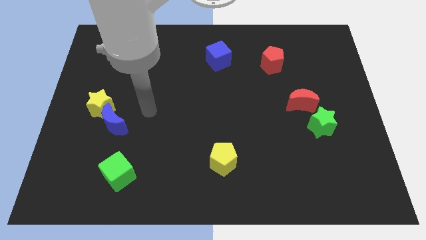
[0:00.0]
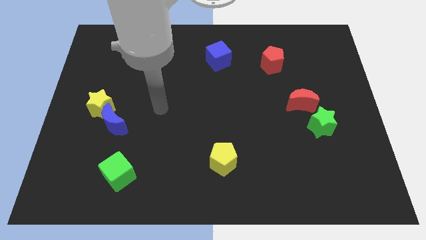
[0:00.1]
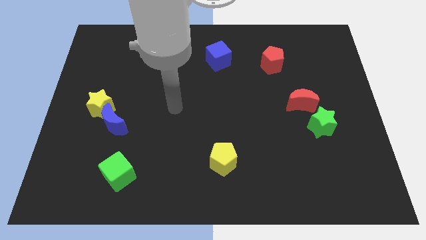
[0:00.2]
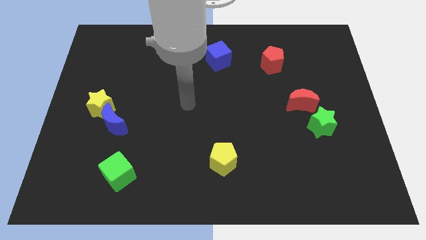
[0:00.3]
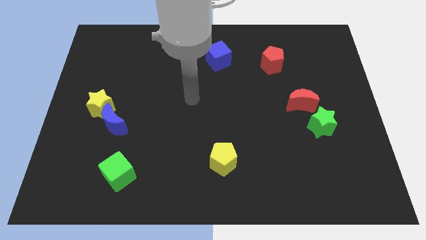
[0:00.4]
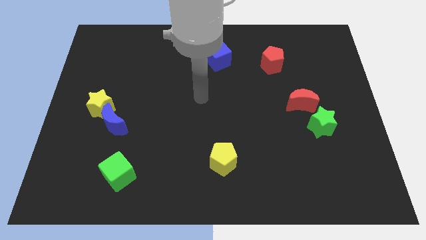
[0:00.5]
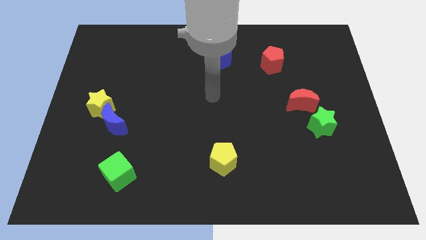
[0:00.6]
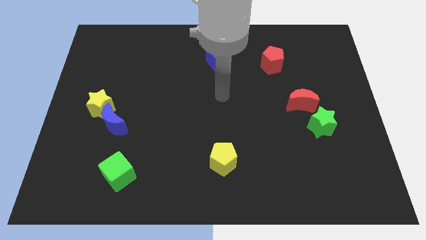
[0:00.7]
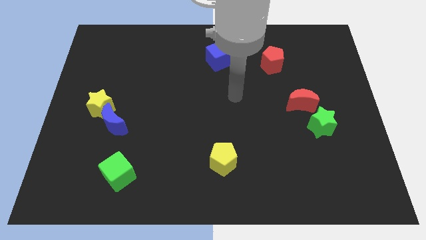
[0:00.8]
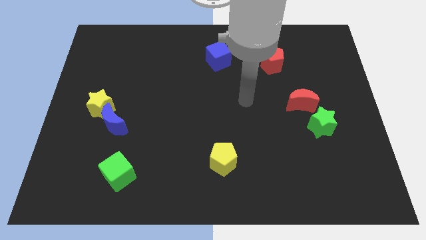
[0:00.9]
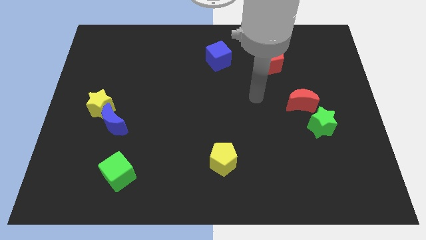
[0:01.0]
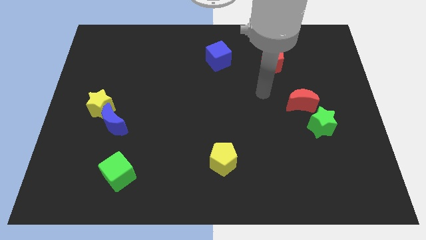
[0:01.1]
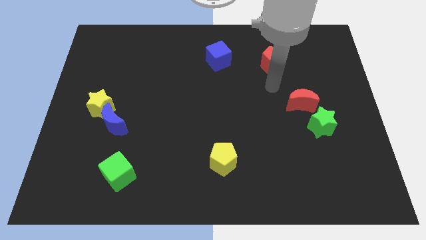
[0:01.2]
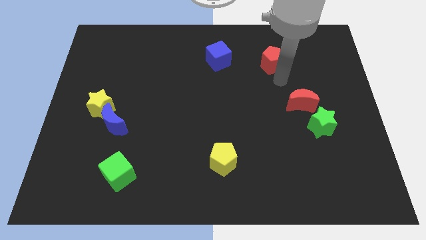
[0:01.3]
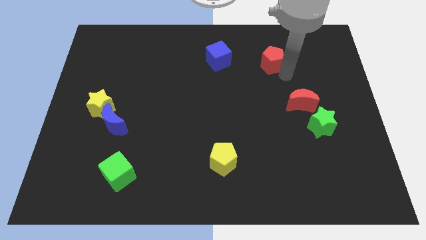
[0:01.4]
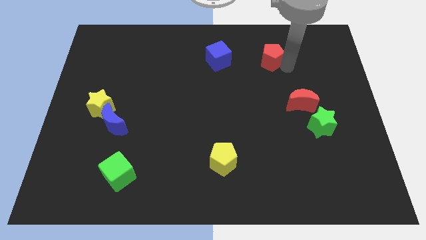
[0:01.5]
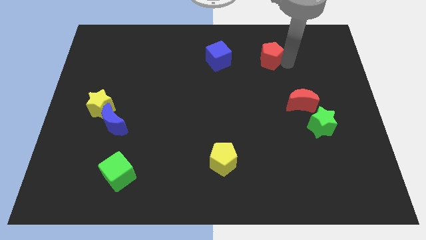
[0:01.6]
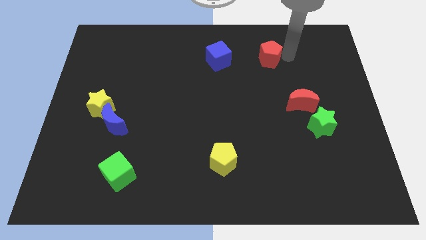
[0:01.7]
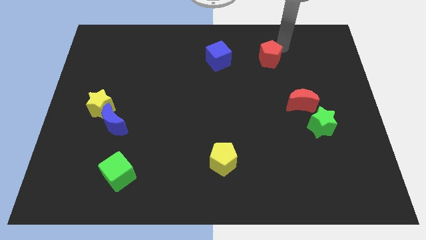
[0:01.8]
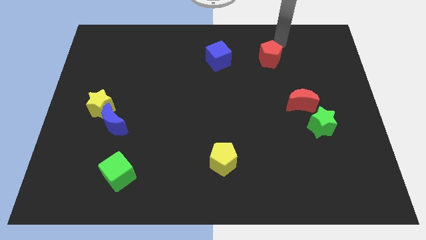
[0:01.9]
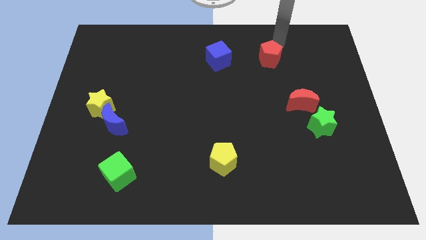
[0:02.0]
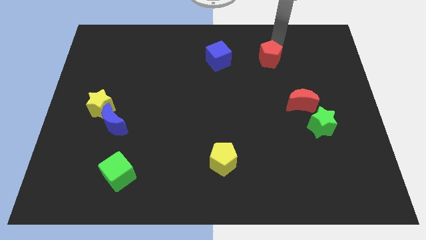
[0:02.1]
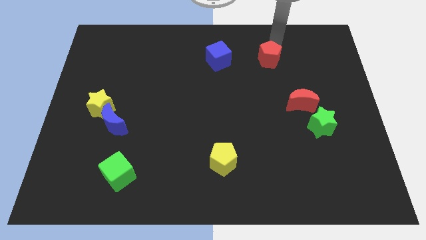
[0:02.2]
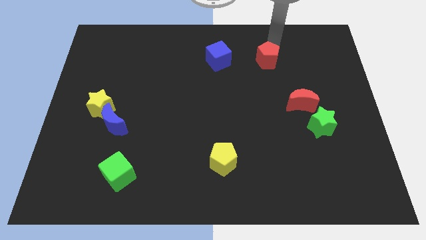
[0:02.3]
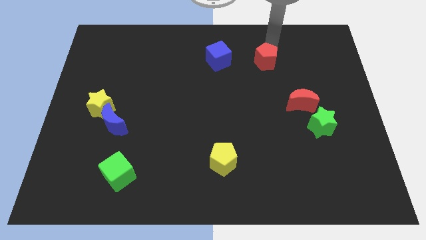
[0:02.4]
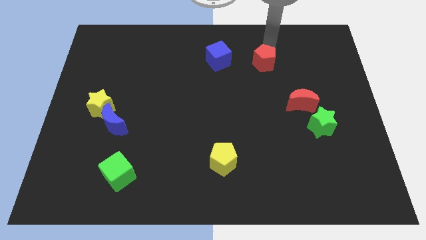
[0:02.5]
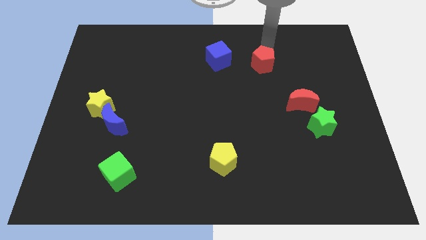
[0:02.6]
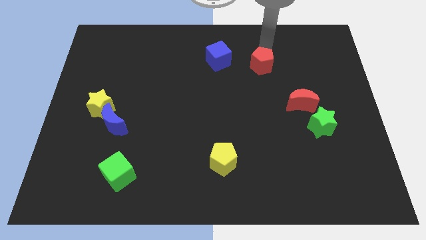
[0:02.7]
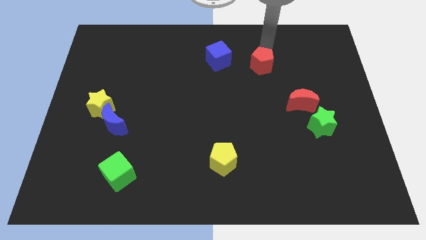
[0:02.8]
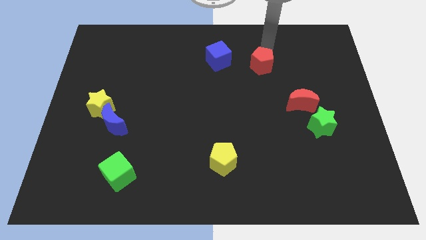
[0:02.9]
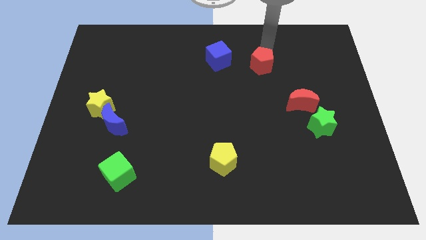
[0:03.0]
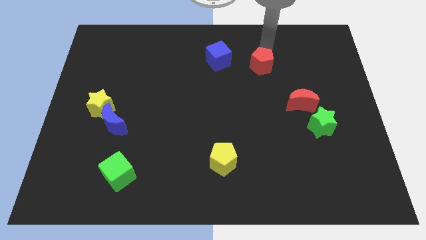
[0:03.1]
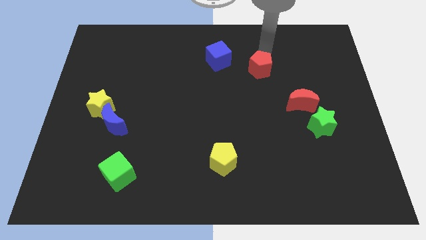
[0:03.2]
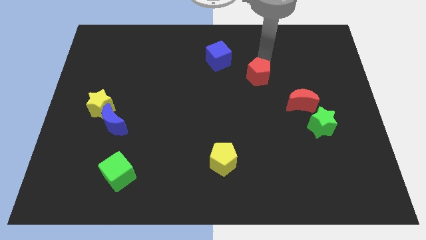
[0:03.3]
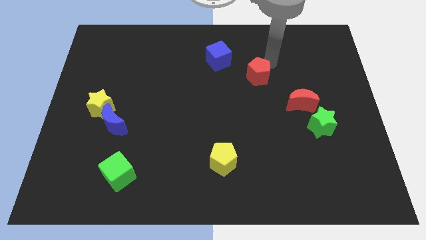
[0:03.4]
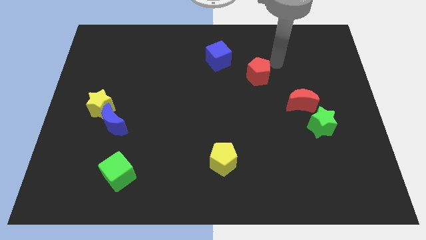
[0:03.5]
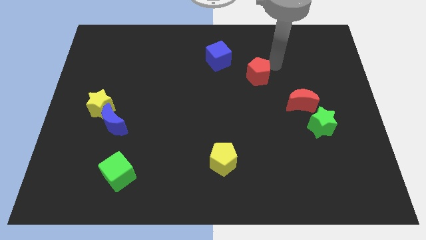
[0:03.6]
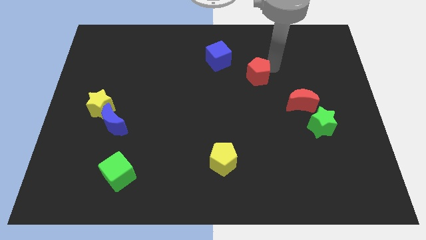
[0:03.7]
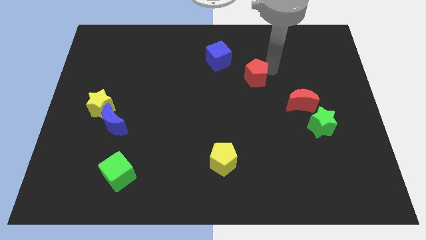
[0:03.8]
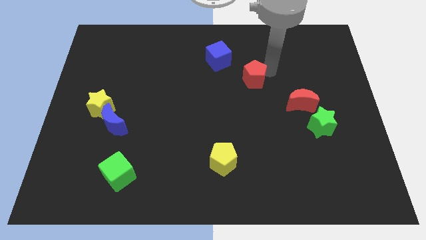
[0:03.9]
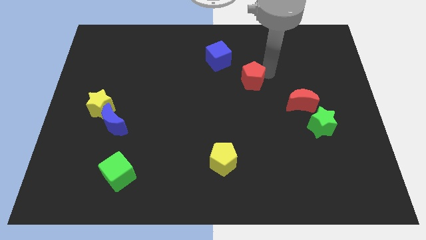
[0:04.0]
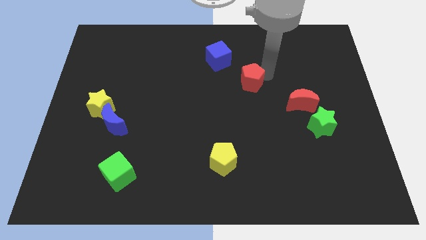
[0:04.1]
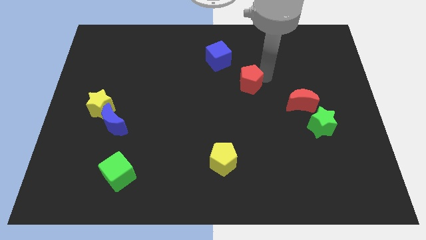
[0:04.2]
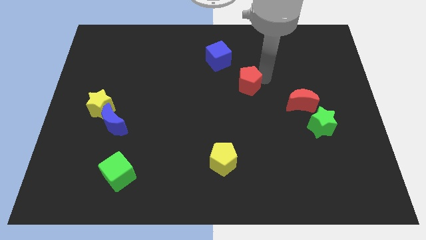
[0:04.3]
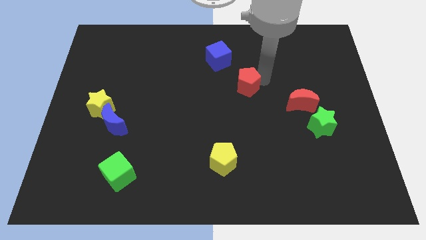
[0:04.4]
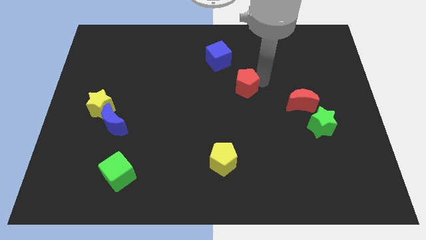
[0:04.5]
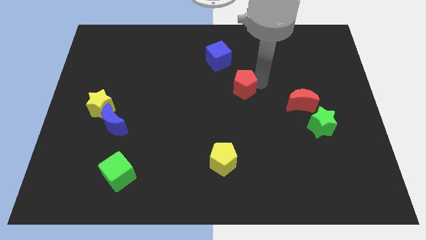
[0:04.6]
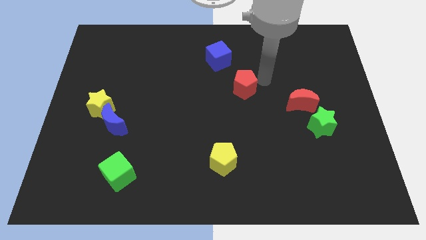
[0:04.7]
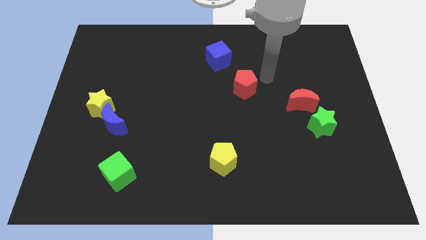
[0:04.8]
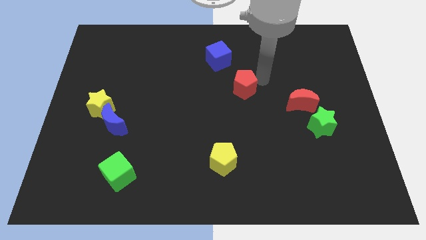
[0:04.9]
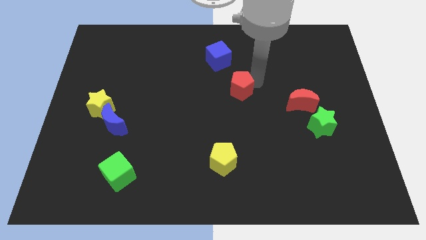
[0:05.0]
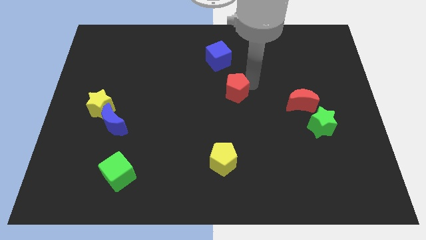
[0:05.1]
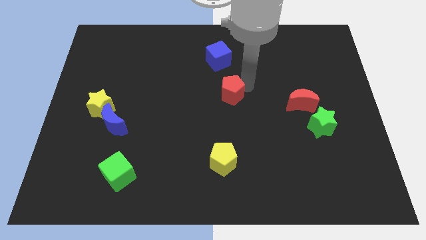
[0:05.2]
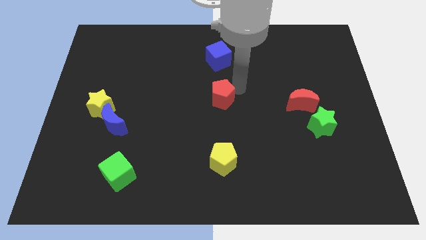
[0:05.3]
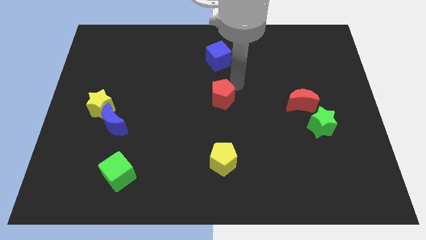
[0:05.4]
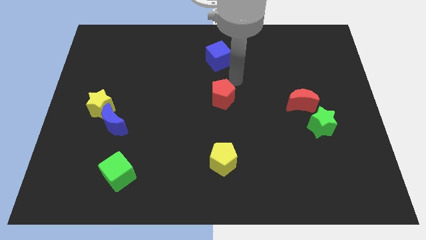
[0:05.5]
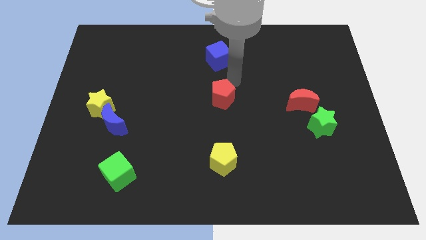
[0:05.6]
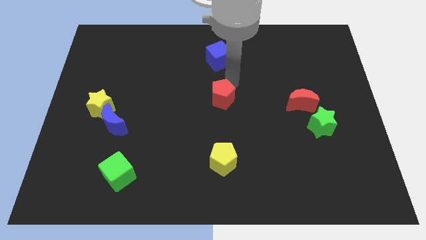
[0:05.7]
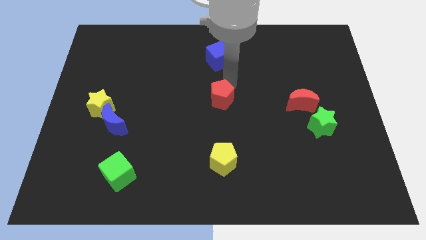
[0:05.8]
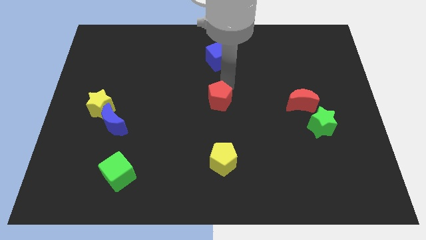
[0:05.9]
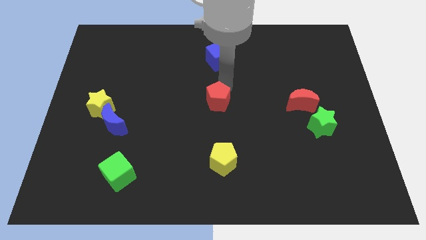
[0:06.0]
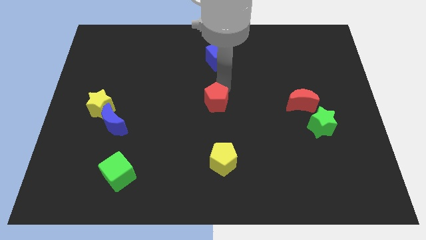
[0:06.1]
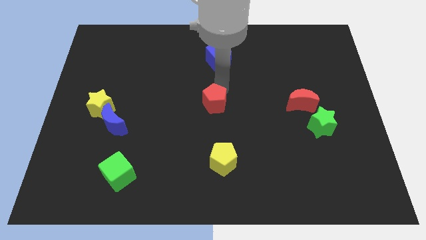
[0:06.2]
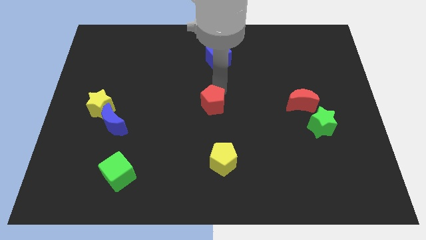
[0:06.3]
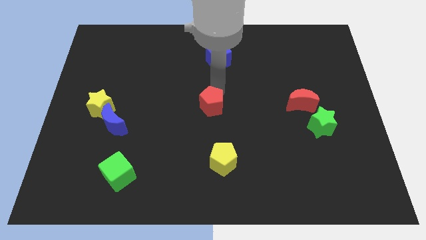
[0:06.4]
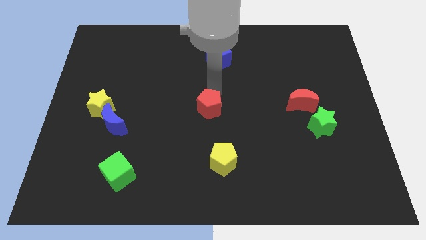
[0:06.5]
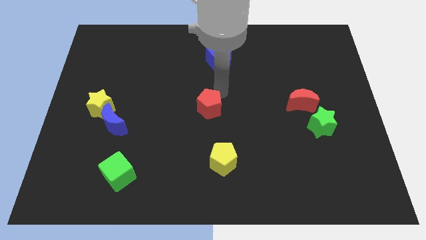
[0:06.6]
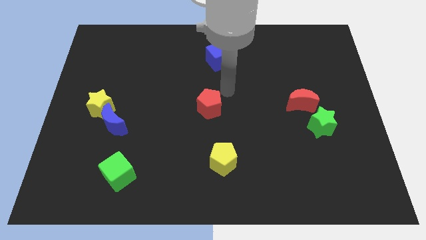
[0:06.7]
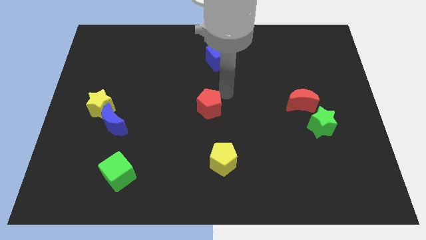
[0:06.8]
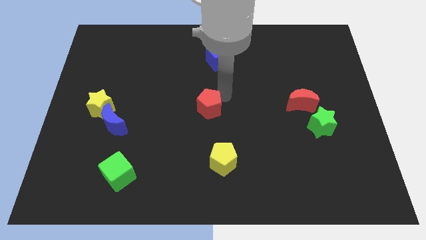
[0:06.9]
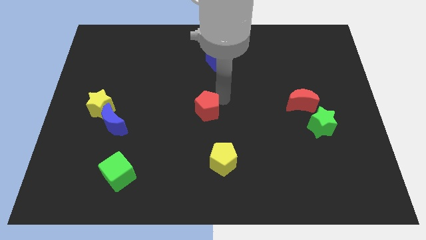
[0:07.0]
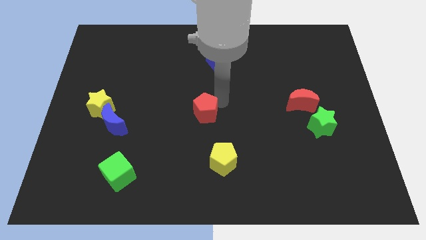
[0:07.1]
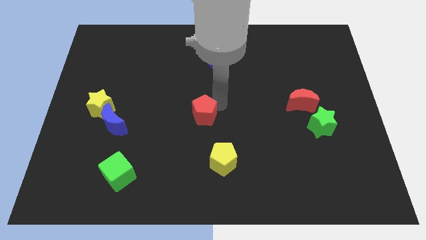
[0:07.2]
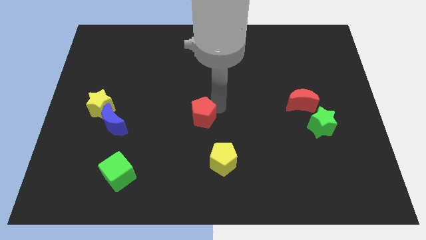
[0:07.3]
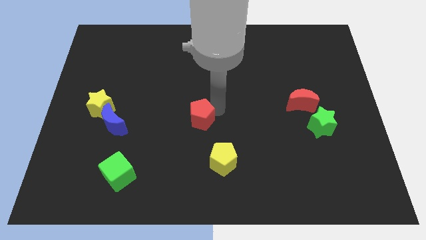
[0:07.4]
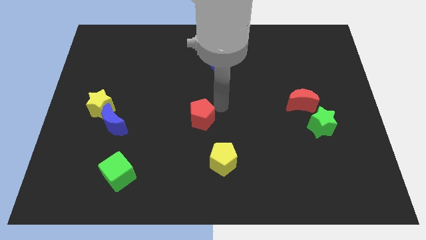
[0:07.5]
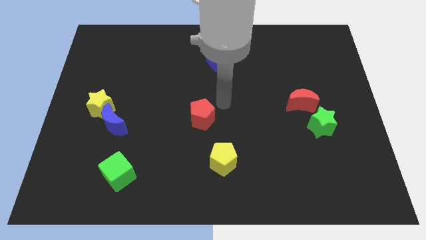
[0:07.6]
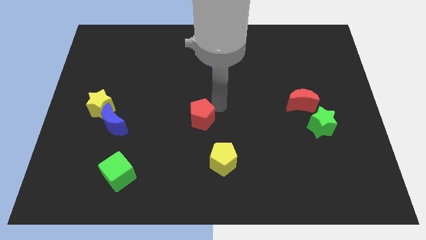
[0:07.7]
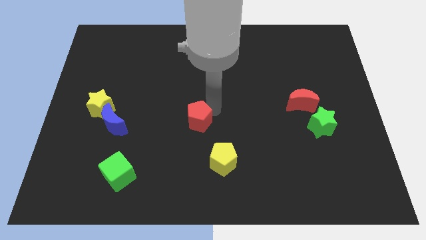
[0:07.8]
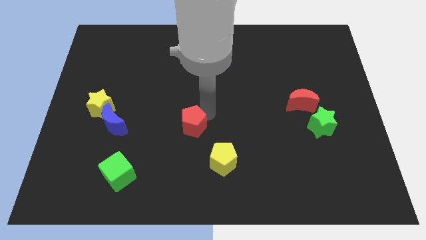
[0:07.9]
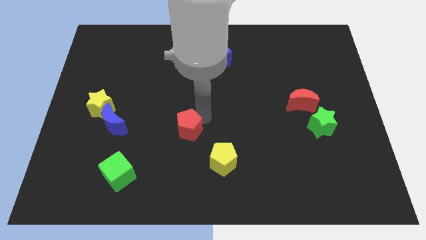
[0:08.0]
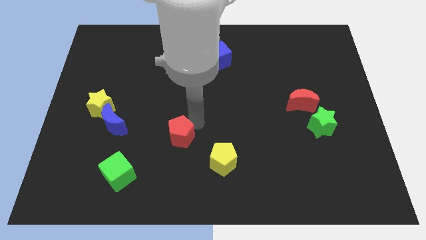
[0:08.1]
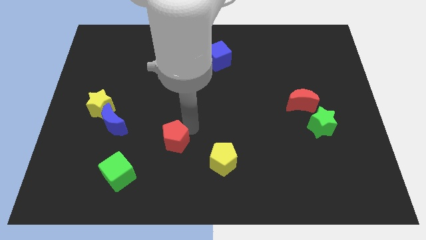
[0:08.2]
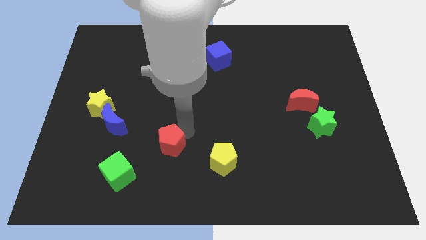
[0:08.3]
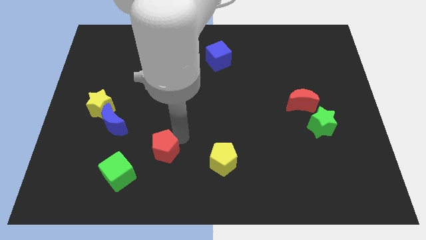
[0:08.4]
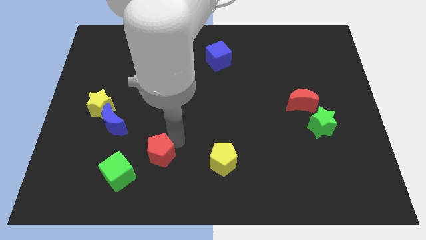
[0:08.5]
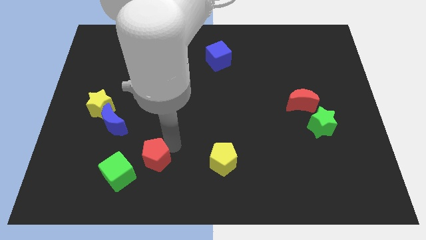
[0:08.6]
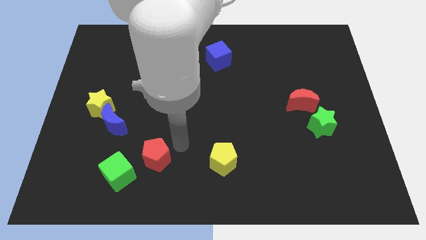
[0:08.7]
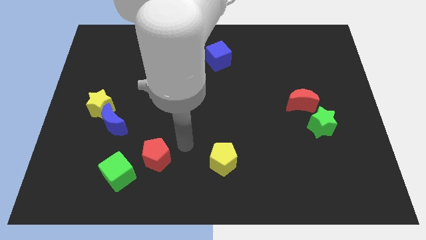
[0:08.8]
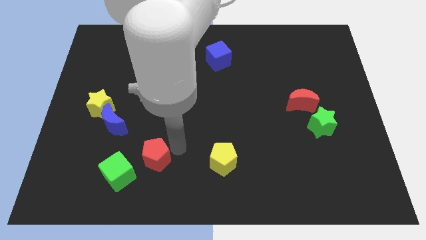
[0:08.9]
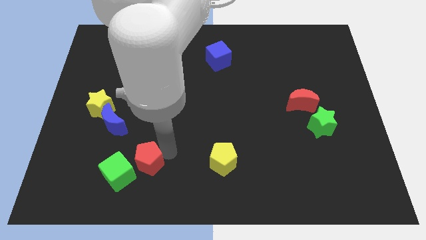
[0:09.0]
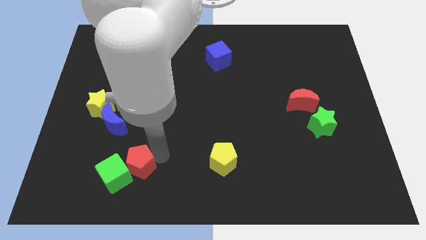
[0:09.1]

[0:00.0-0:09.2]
push the red pentagon next to the green cube
